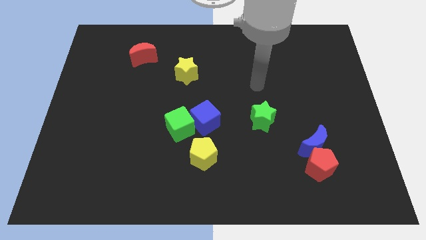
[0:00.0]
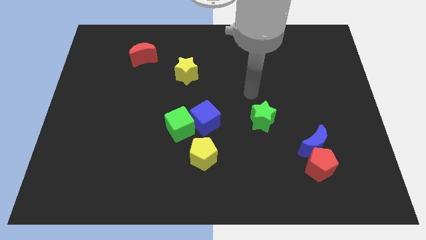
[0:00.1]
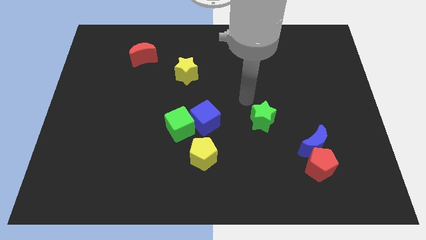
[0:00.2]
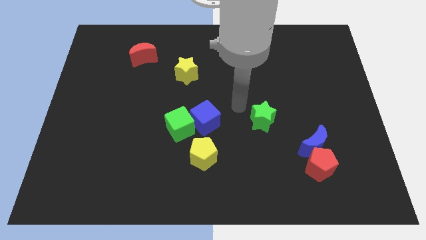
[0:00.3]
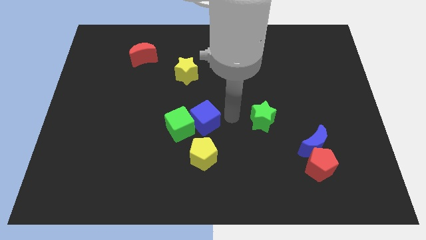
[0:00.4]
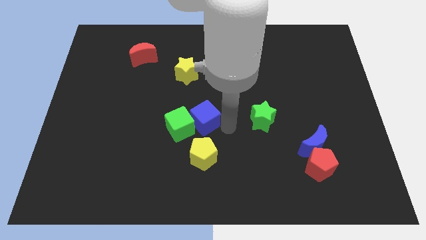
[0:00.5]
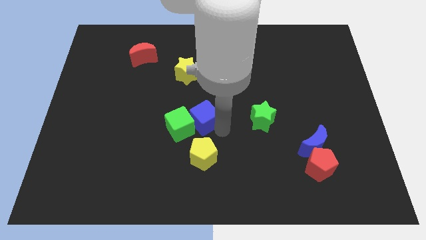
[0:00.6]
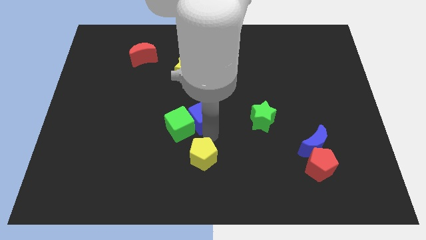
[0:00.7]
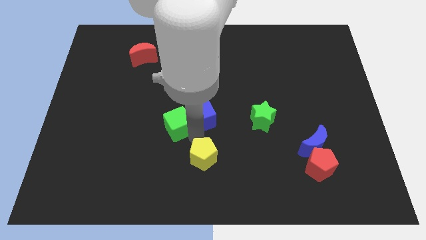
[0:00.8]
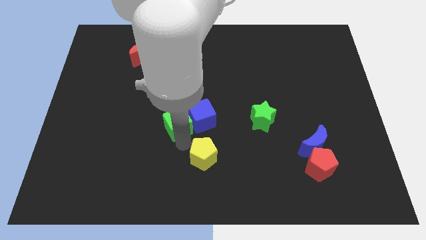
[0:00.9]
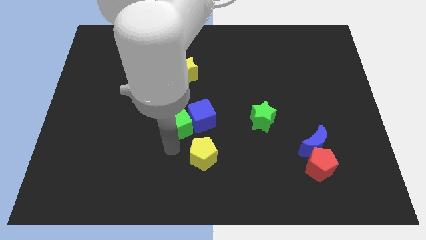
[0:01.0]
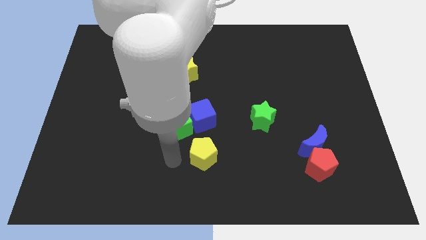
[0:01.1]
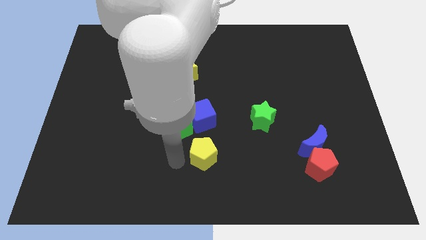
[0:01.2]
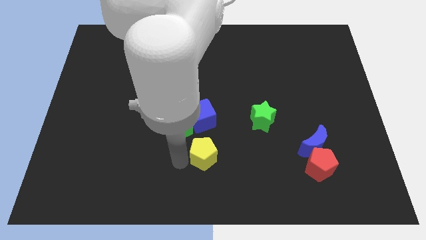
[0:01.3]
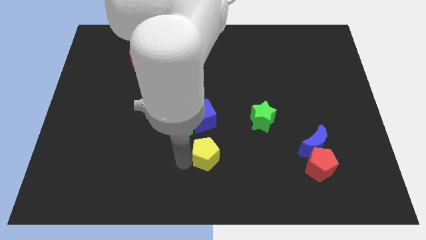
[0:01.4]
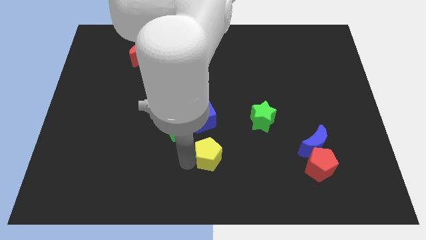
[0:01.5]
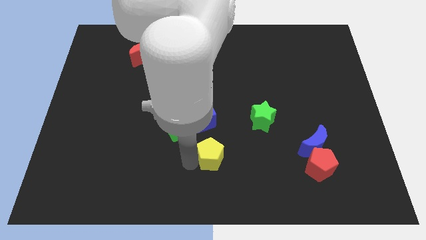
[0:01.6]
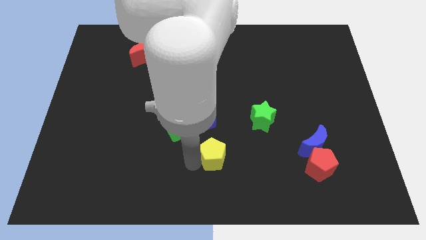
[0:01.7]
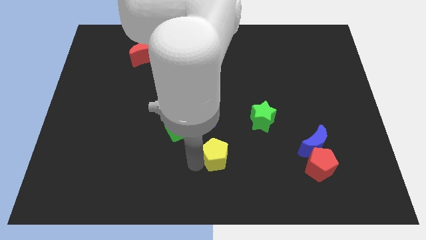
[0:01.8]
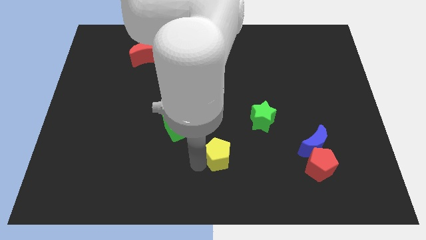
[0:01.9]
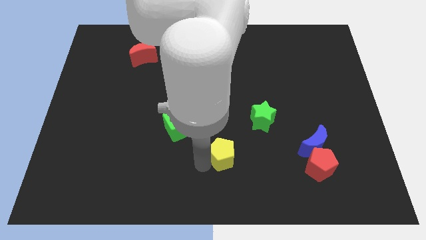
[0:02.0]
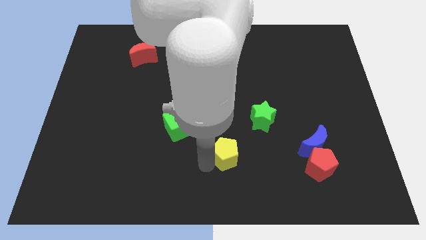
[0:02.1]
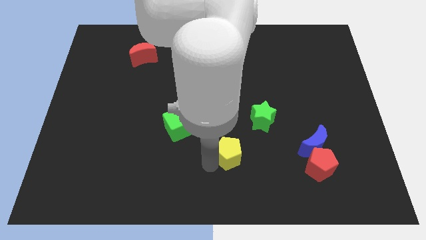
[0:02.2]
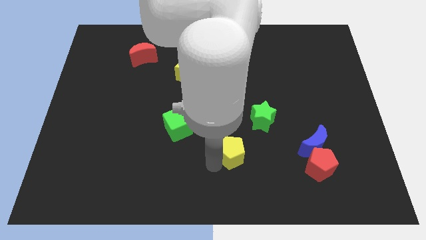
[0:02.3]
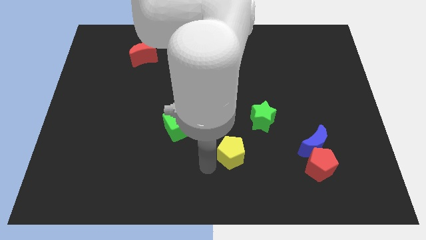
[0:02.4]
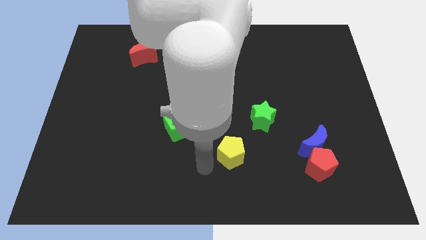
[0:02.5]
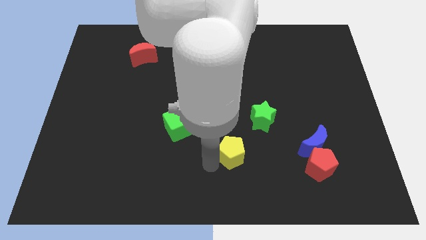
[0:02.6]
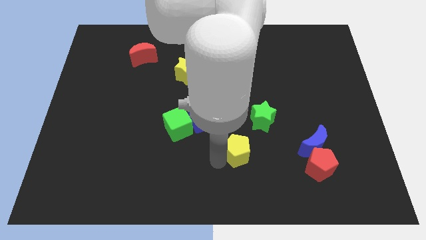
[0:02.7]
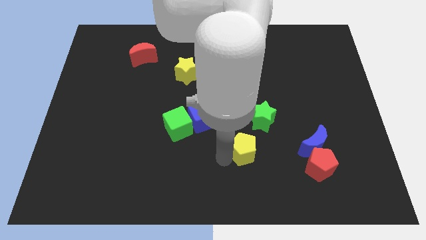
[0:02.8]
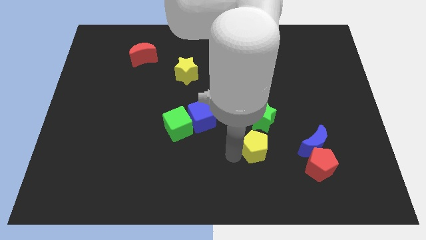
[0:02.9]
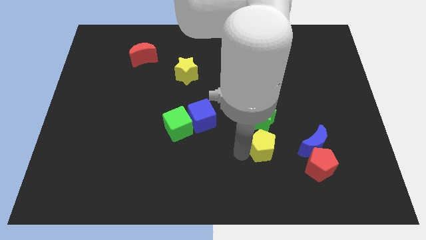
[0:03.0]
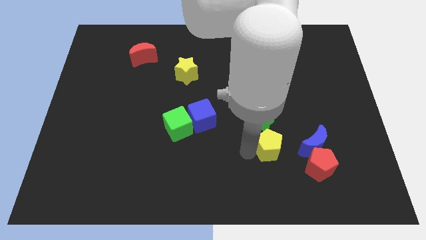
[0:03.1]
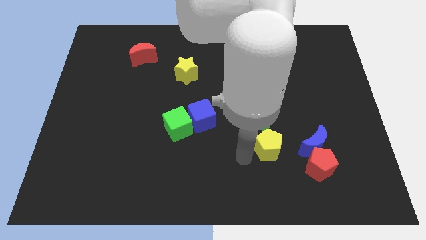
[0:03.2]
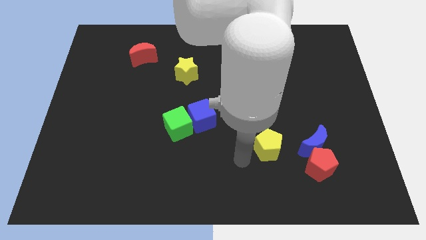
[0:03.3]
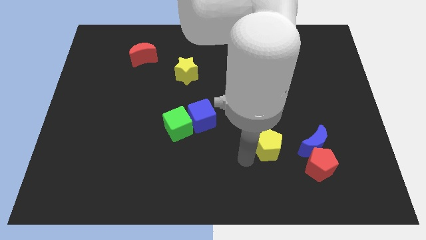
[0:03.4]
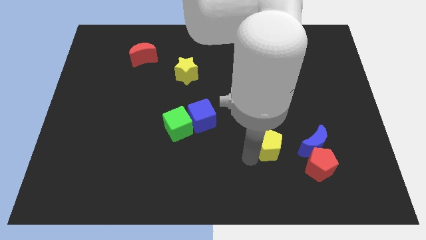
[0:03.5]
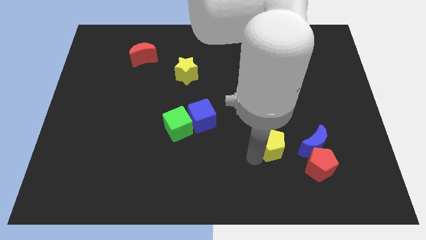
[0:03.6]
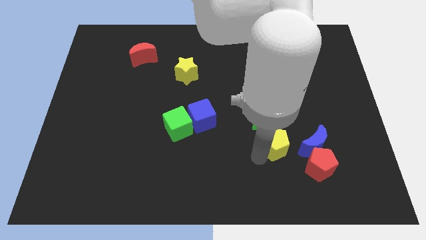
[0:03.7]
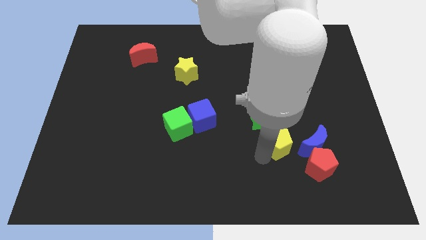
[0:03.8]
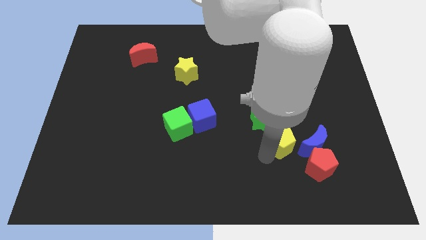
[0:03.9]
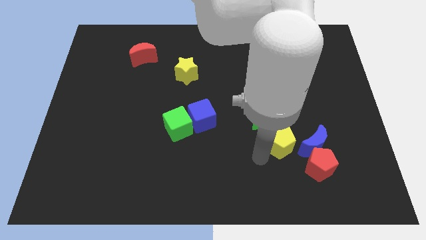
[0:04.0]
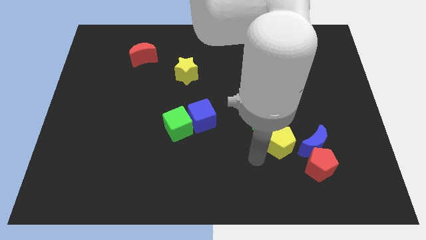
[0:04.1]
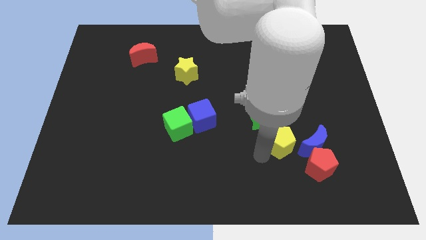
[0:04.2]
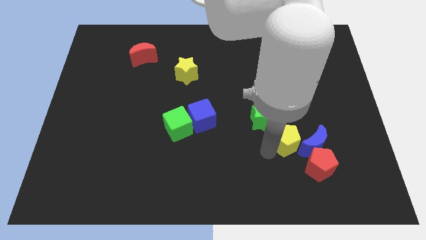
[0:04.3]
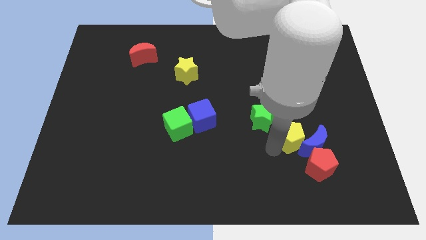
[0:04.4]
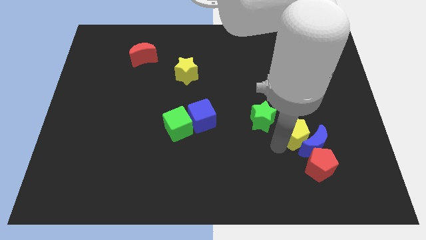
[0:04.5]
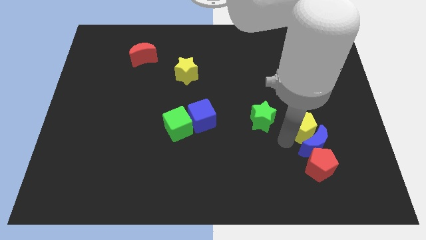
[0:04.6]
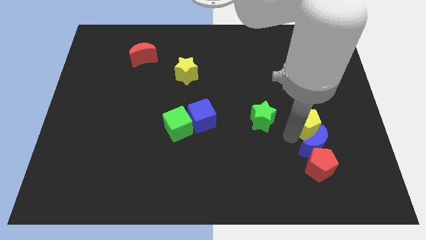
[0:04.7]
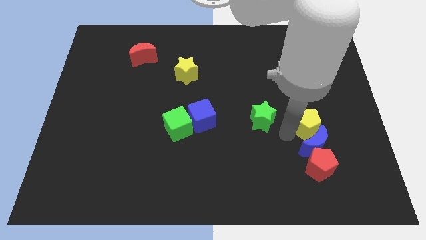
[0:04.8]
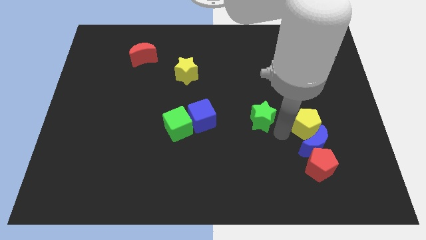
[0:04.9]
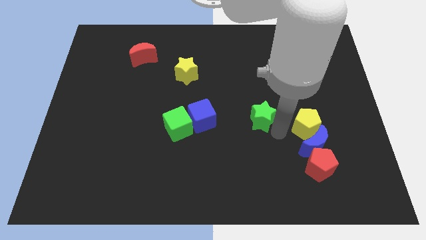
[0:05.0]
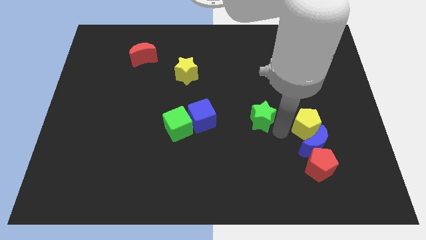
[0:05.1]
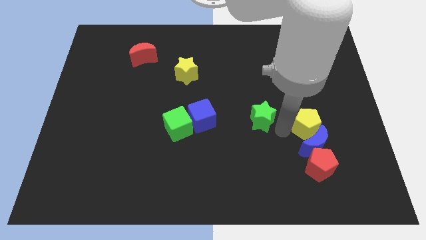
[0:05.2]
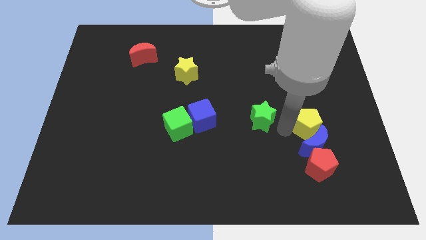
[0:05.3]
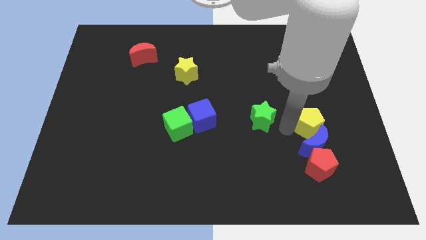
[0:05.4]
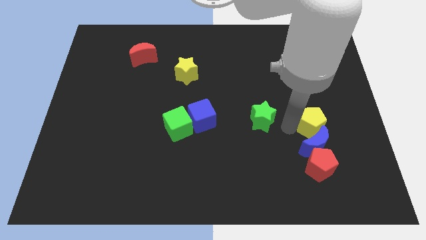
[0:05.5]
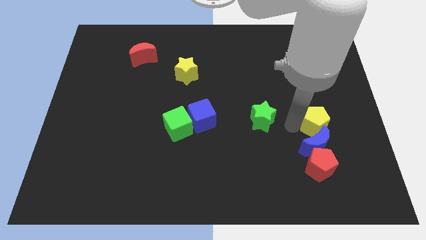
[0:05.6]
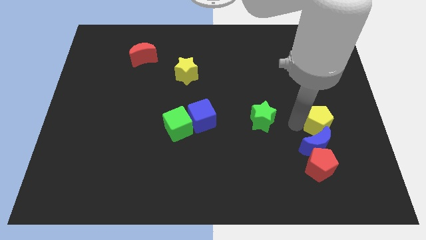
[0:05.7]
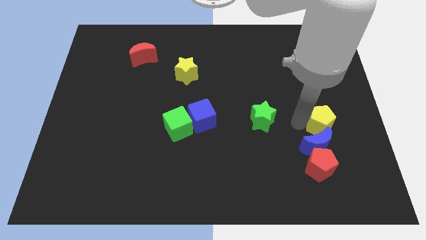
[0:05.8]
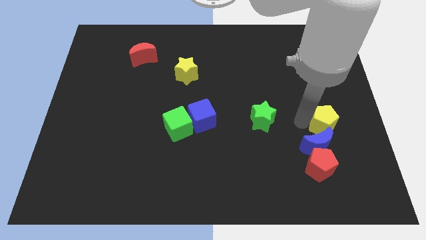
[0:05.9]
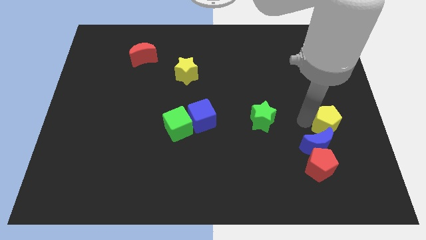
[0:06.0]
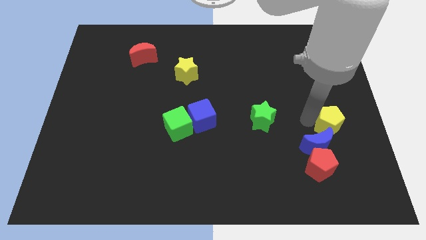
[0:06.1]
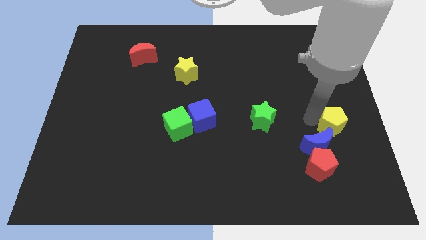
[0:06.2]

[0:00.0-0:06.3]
slide the yellow pentagon to the center right

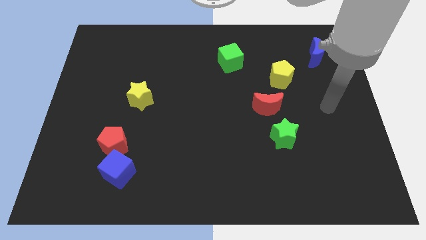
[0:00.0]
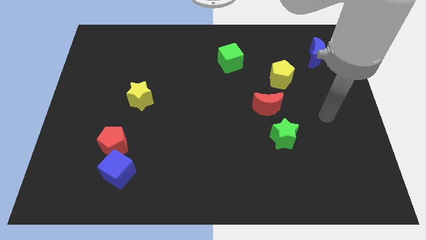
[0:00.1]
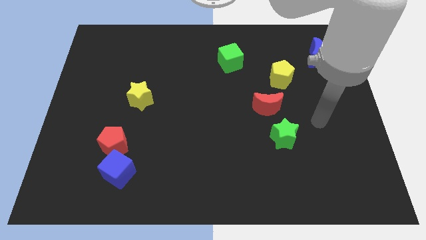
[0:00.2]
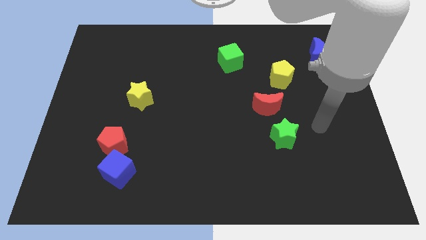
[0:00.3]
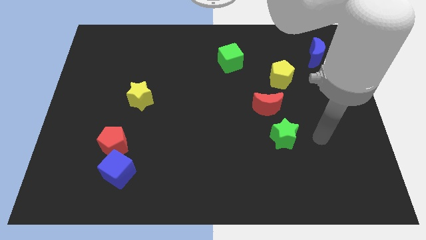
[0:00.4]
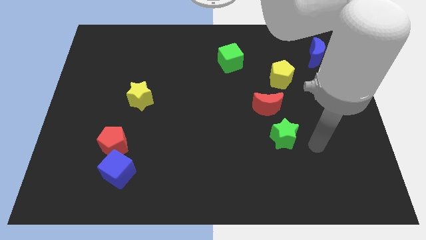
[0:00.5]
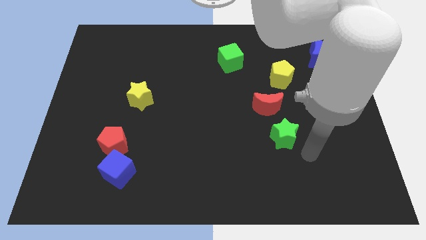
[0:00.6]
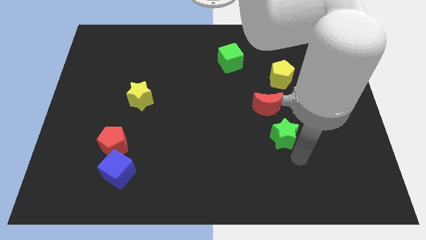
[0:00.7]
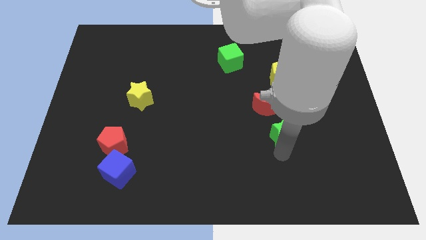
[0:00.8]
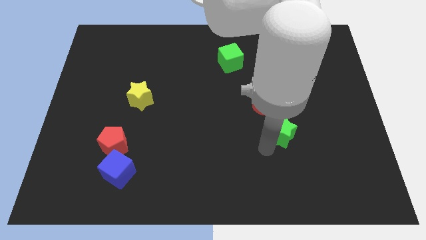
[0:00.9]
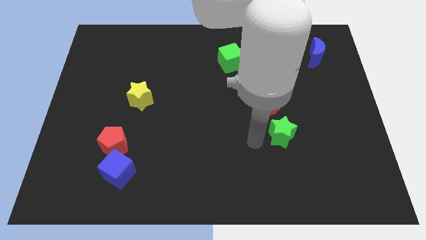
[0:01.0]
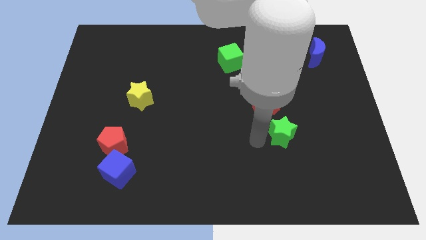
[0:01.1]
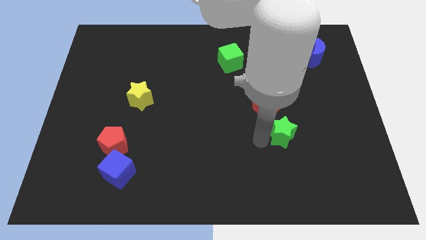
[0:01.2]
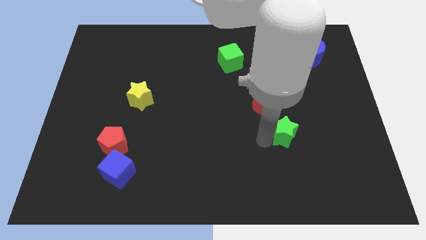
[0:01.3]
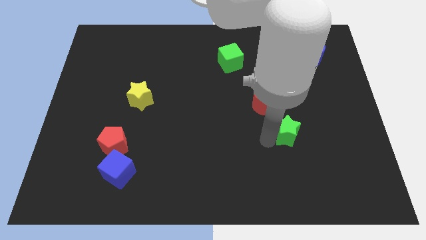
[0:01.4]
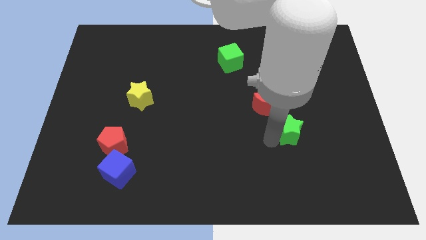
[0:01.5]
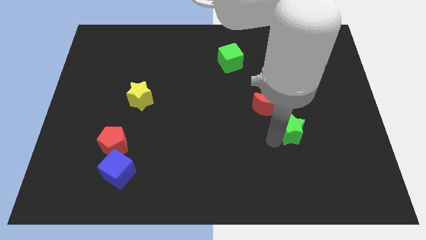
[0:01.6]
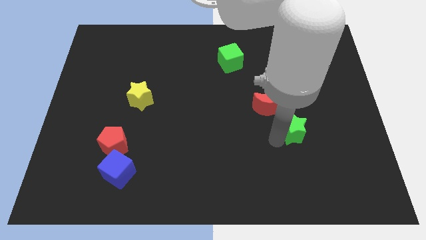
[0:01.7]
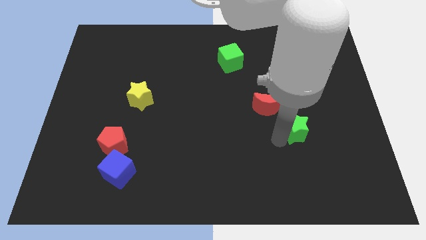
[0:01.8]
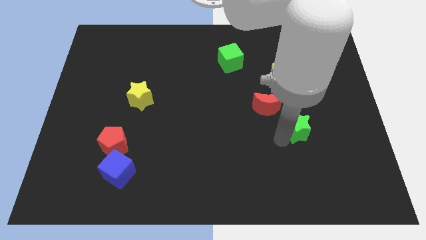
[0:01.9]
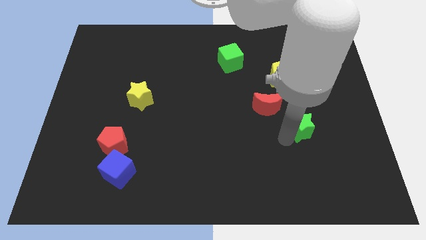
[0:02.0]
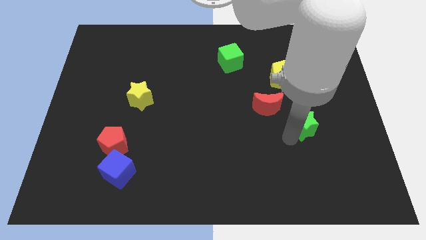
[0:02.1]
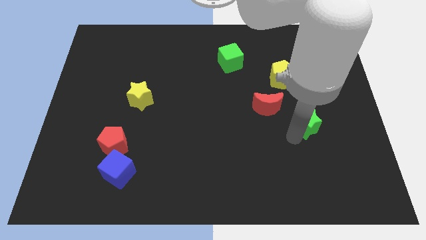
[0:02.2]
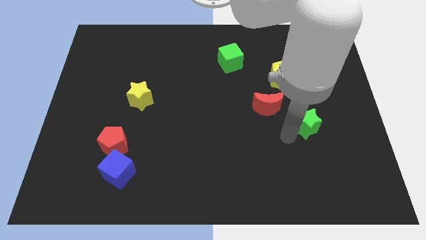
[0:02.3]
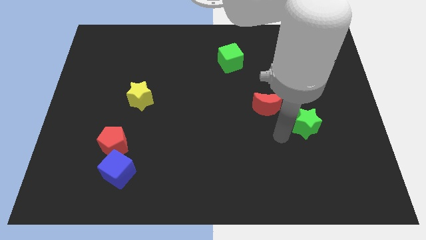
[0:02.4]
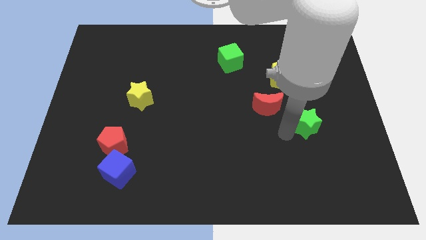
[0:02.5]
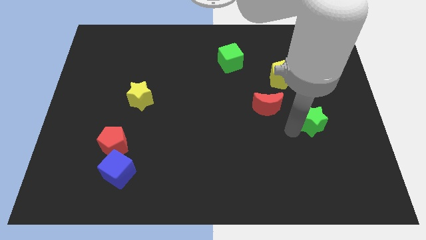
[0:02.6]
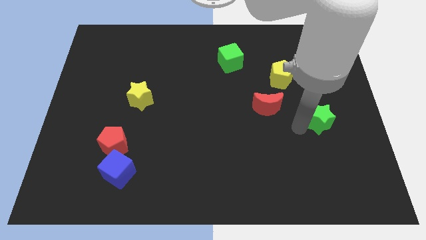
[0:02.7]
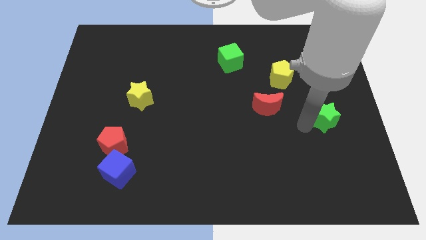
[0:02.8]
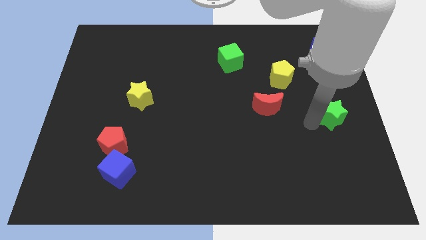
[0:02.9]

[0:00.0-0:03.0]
slide the green star to the center right
